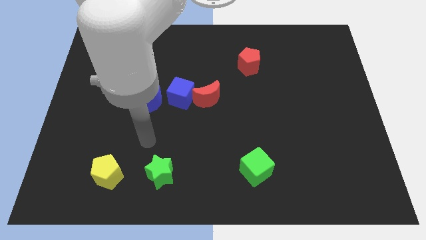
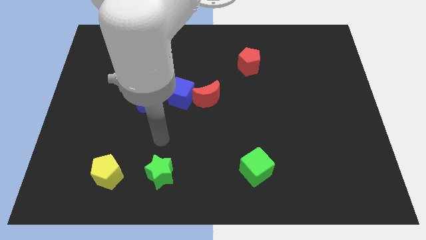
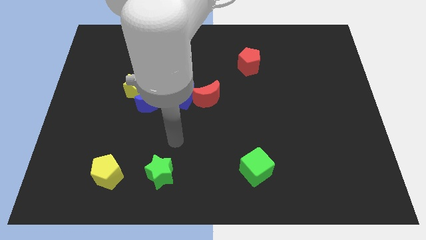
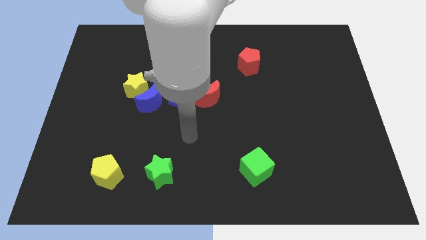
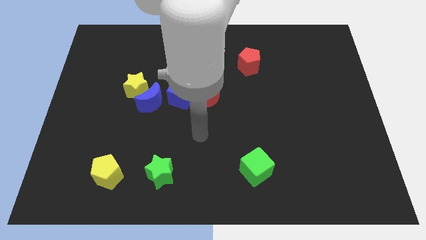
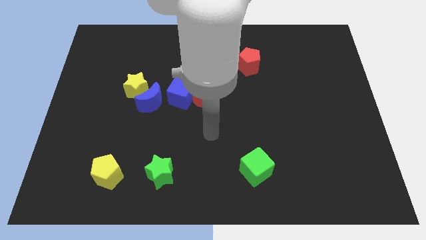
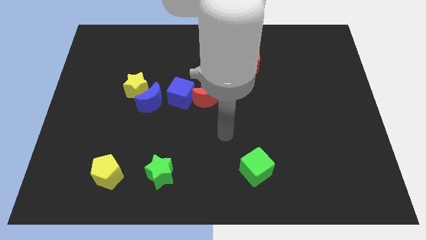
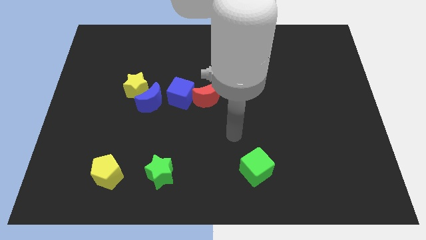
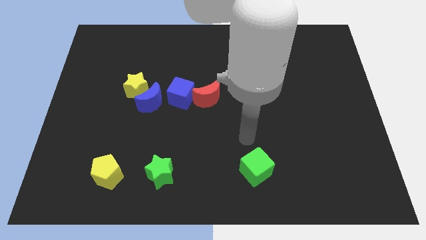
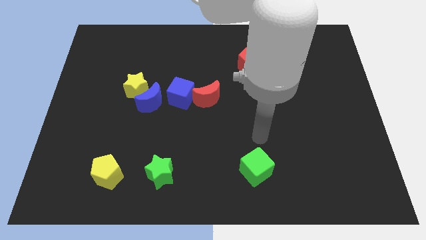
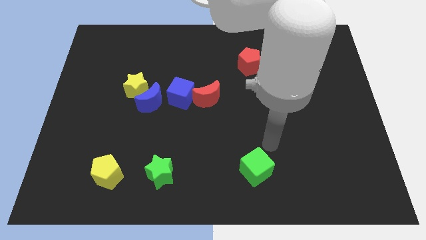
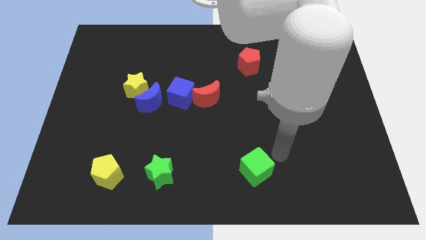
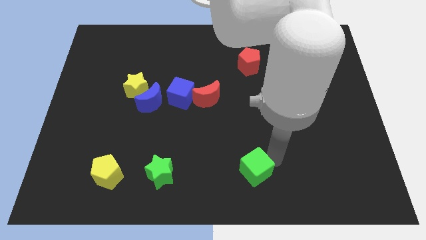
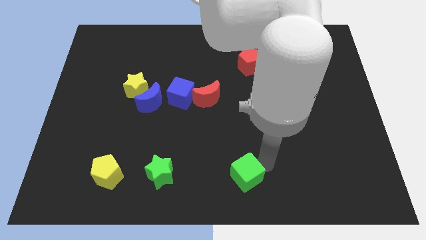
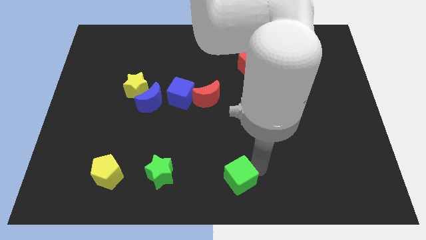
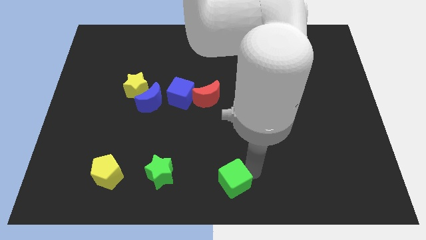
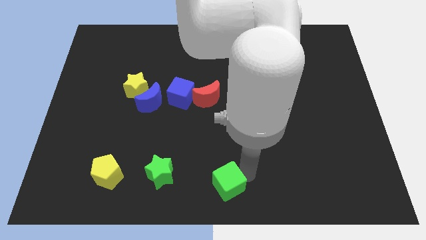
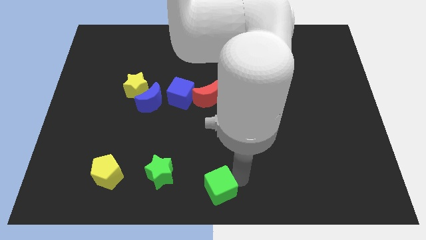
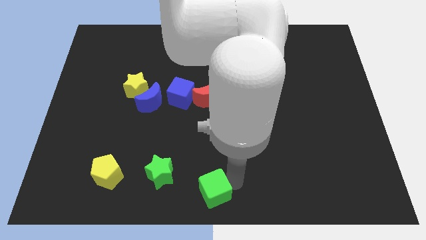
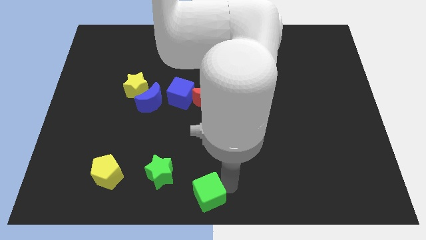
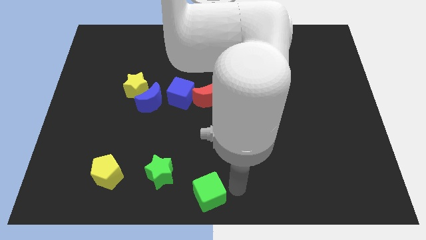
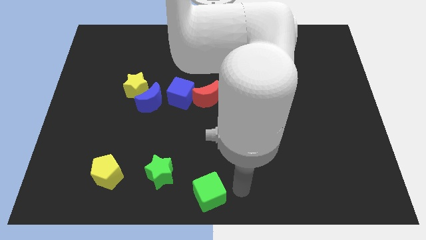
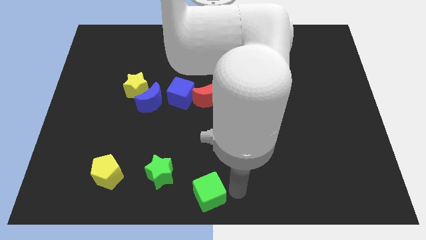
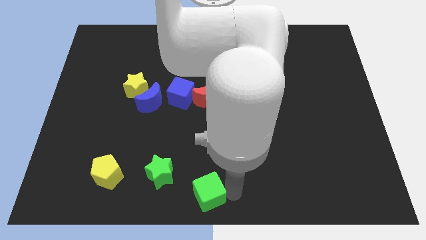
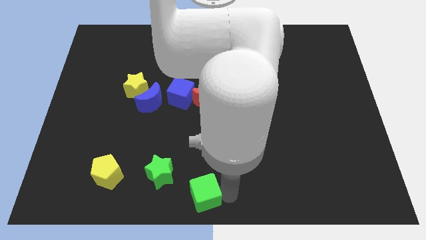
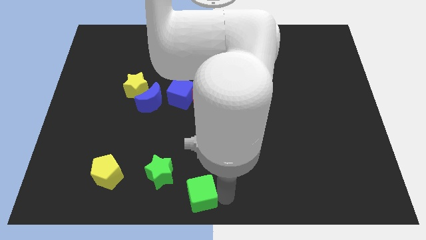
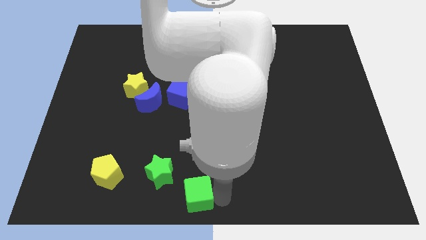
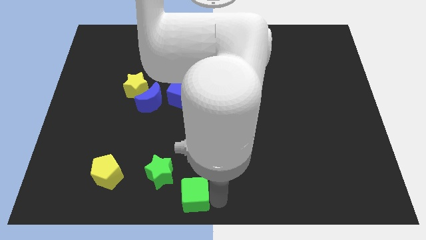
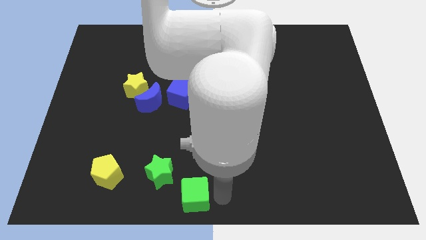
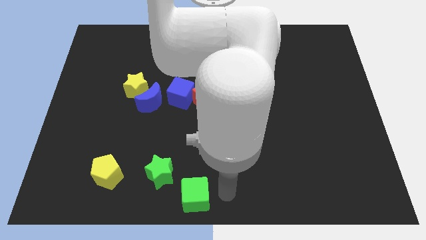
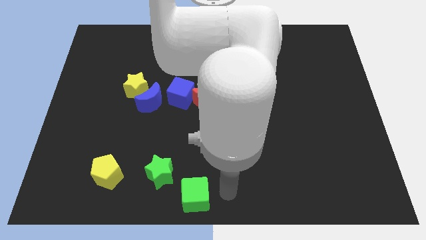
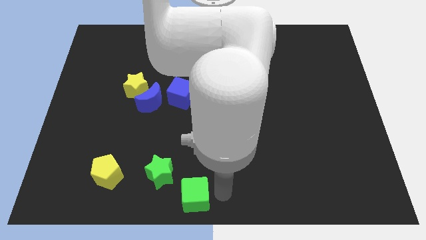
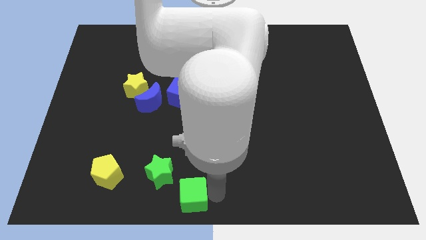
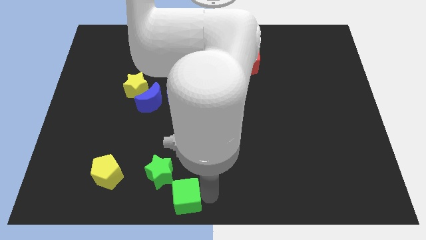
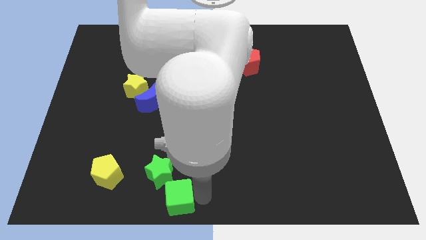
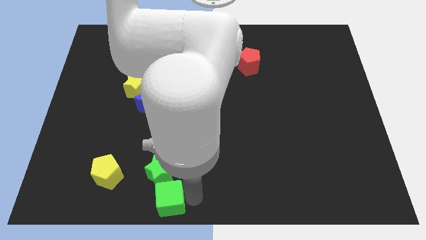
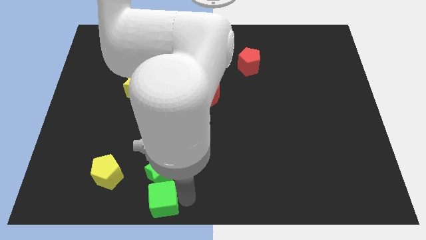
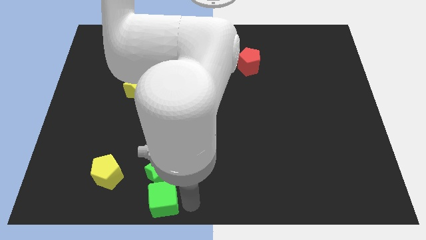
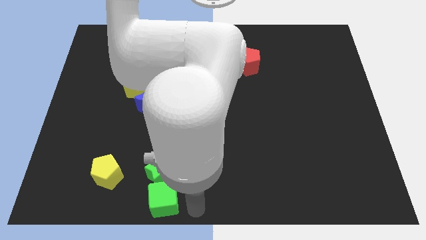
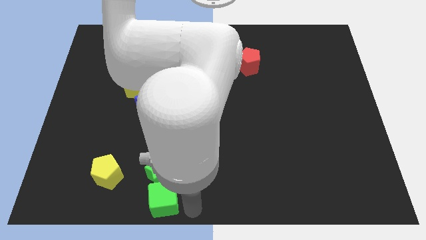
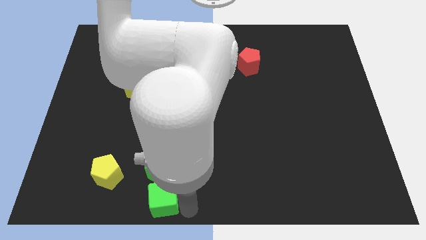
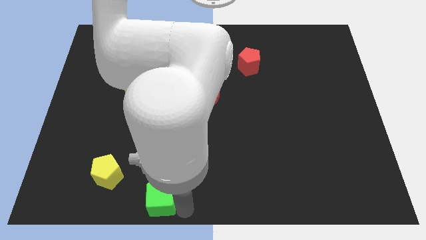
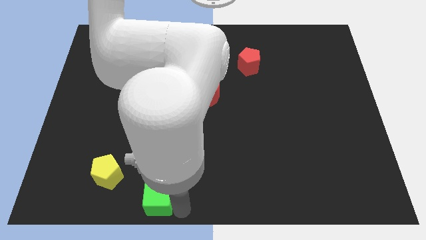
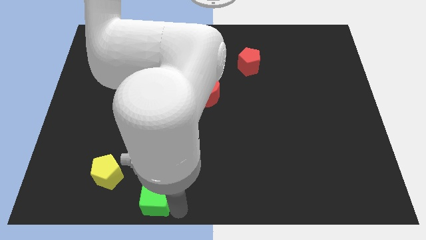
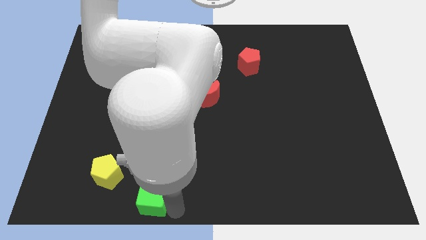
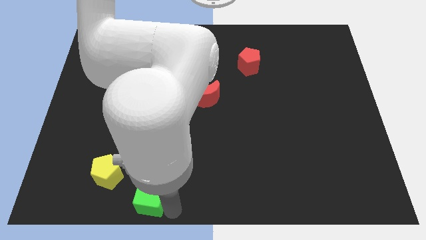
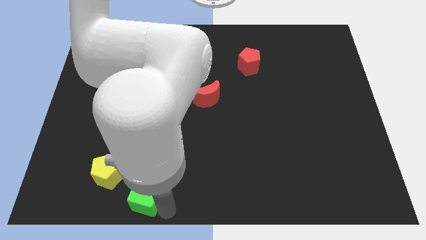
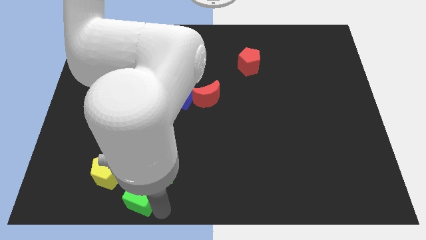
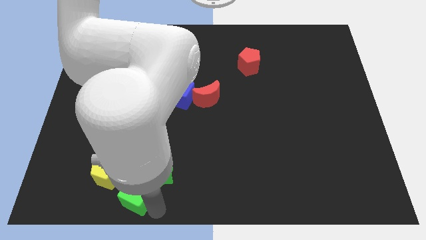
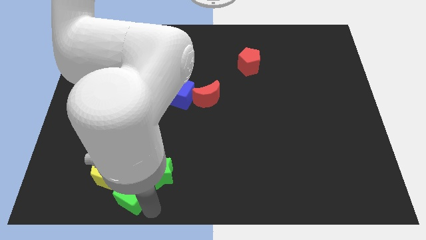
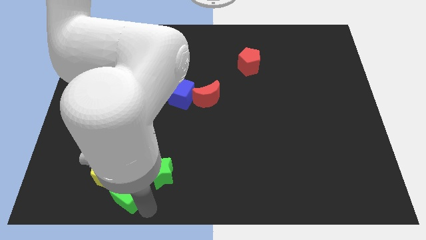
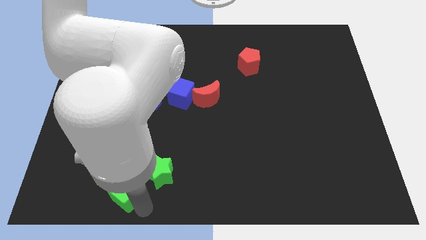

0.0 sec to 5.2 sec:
put the green cube towards the yellow pentagon

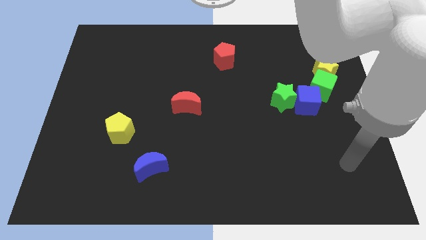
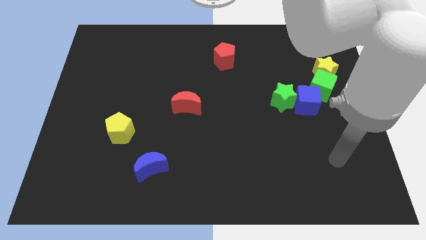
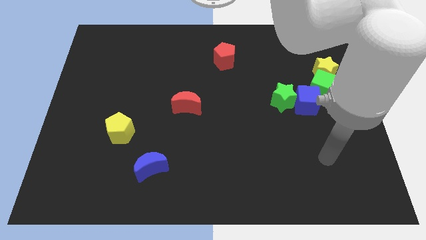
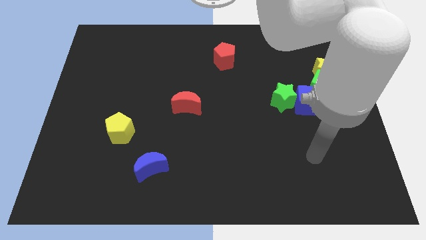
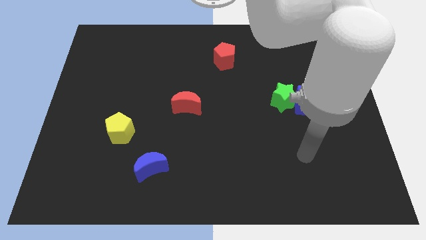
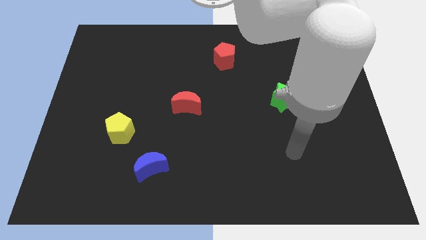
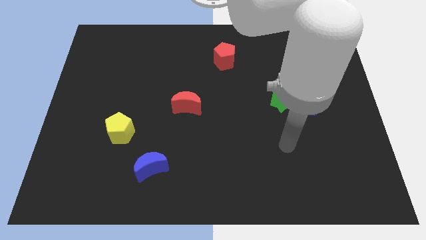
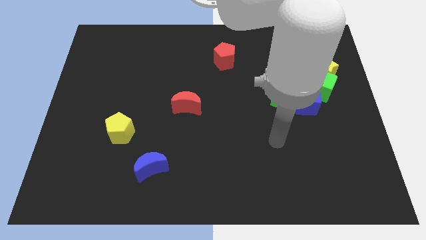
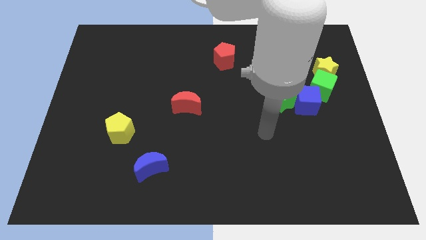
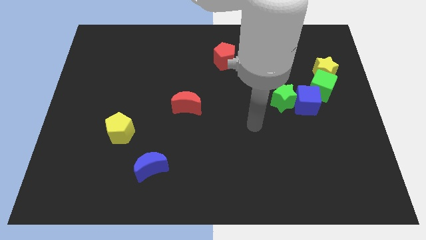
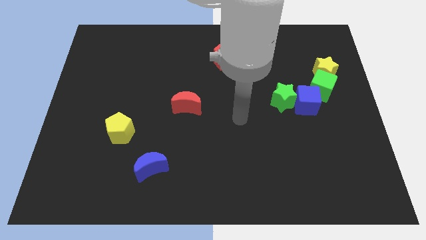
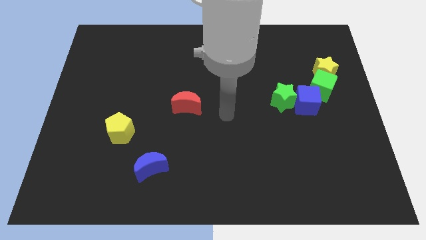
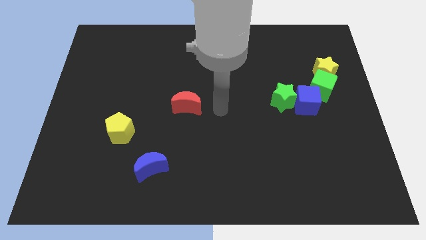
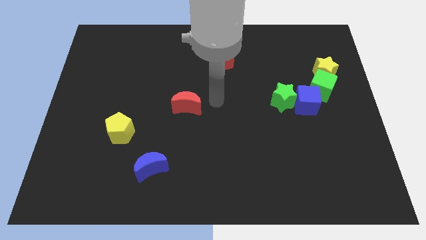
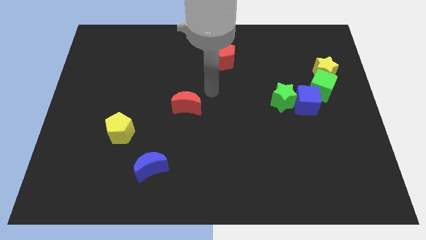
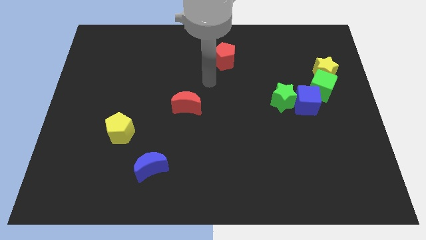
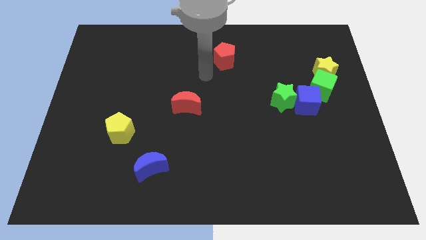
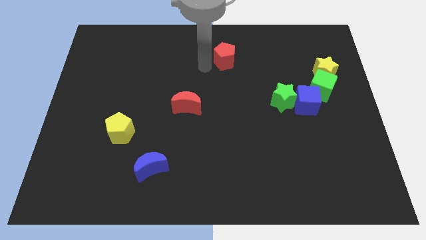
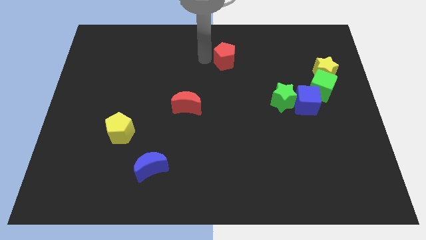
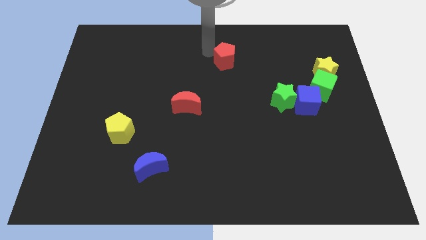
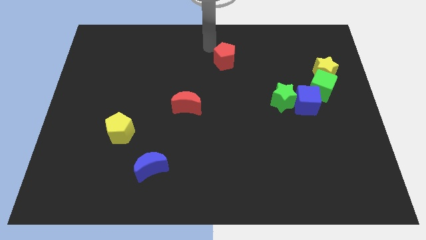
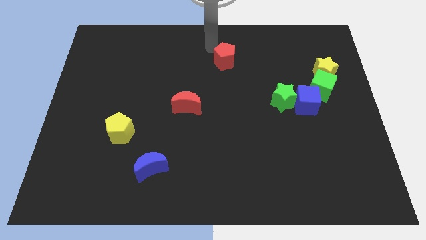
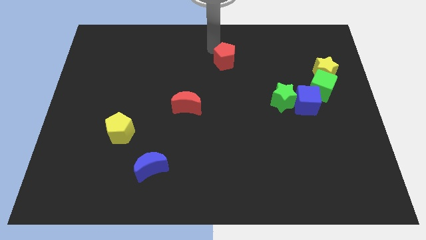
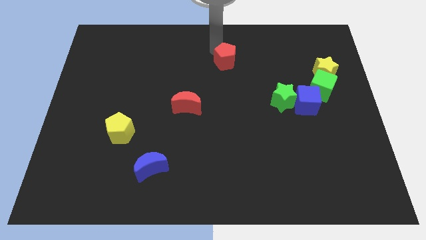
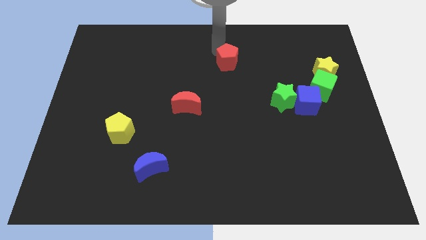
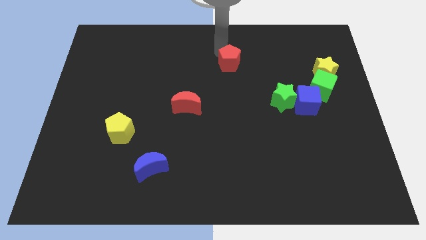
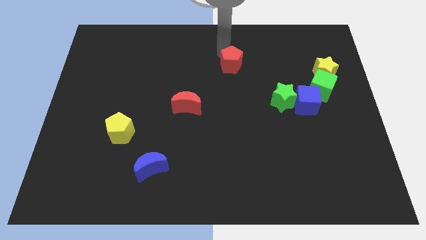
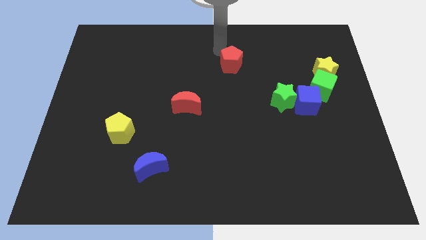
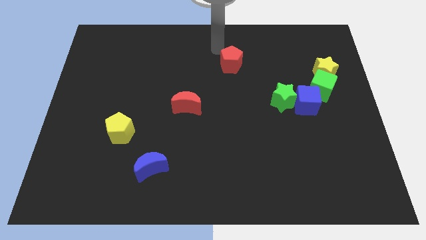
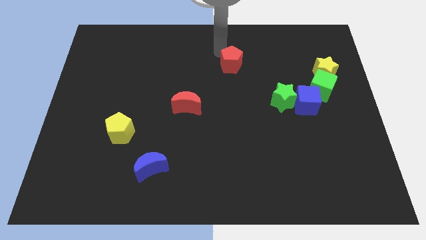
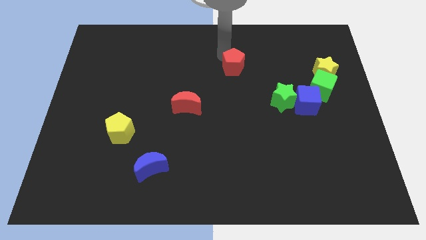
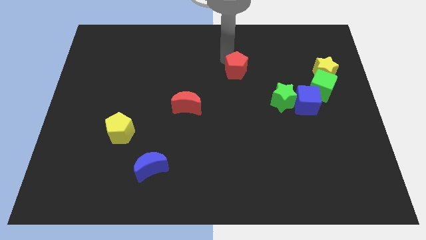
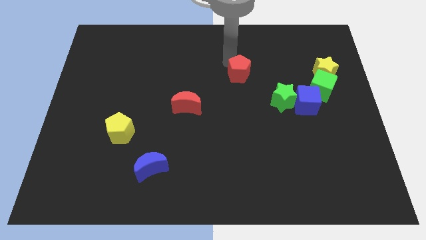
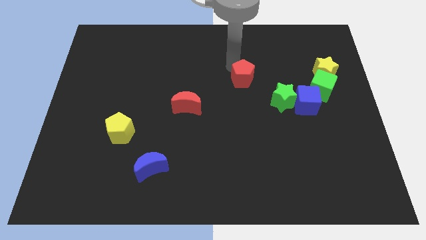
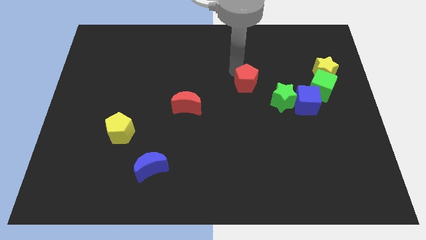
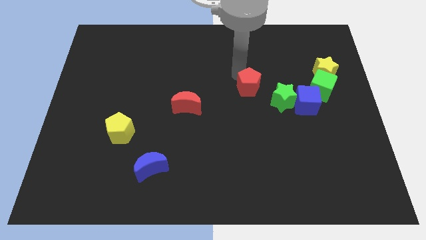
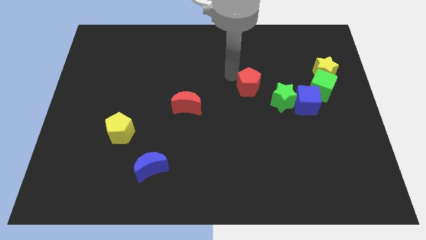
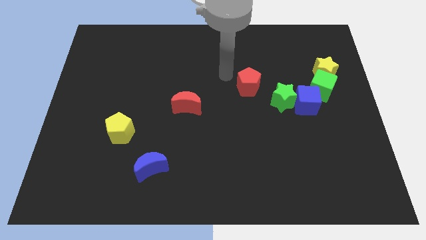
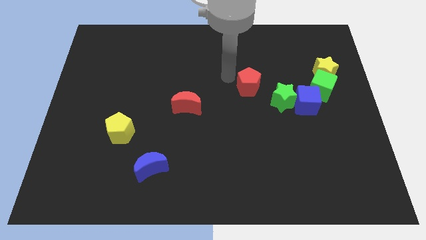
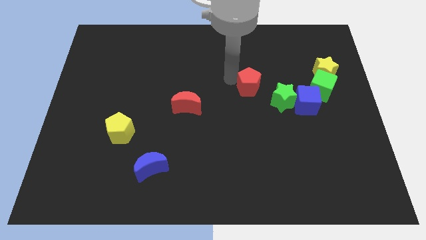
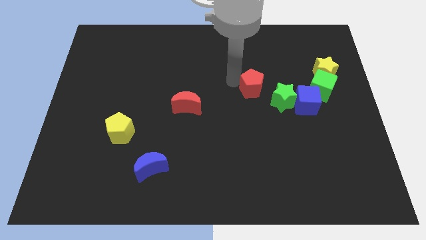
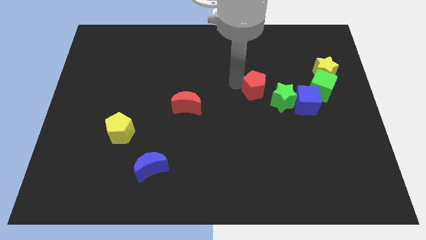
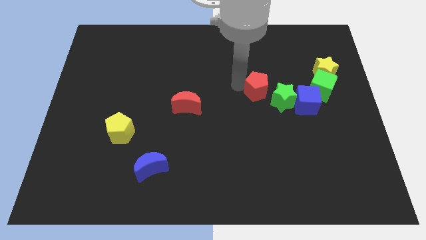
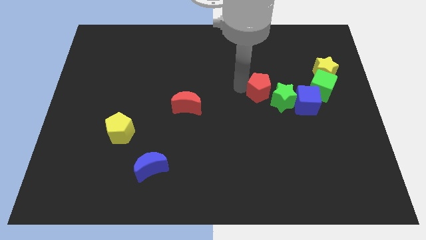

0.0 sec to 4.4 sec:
put the red pentagon to the green star
